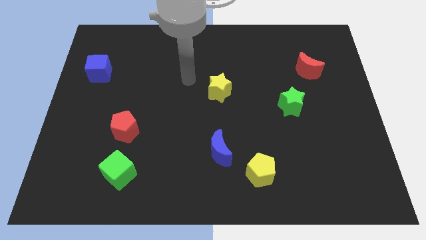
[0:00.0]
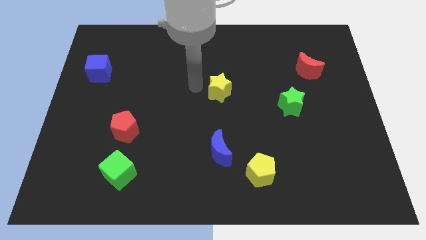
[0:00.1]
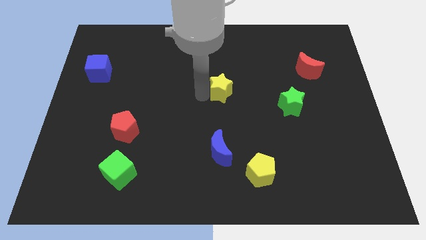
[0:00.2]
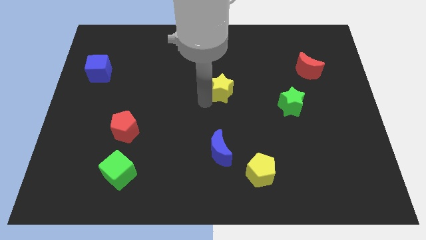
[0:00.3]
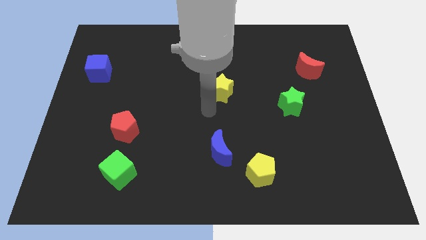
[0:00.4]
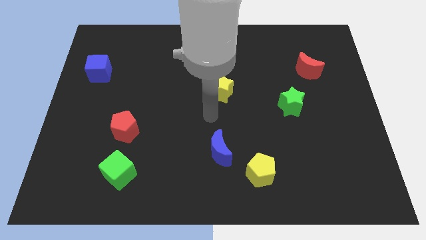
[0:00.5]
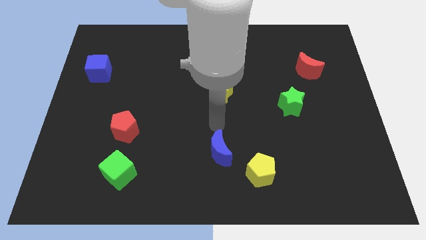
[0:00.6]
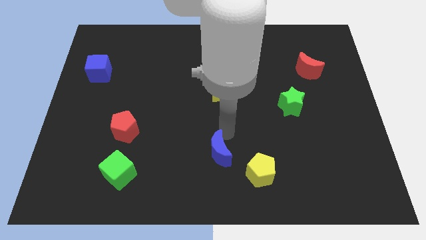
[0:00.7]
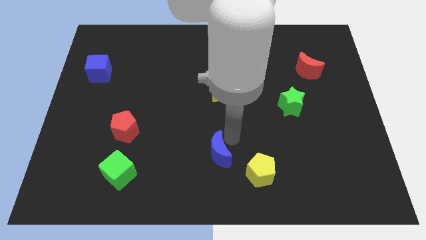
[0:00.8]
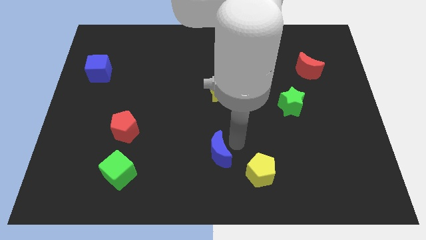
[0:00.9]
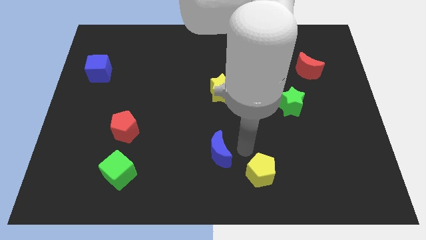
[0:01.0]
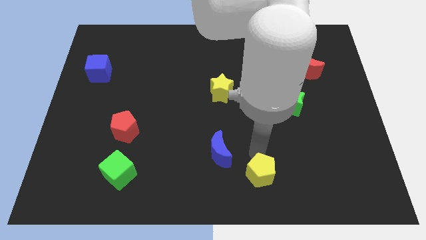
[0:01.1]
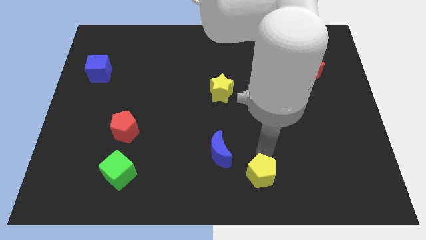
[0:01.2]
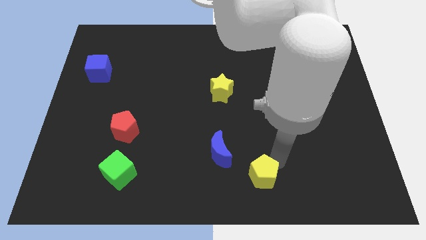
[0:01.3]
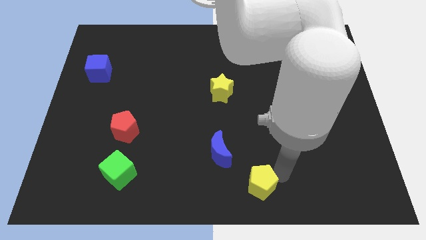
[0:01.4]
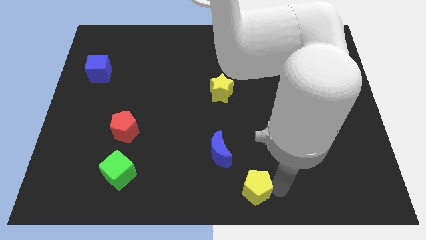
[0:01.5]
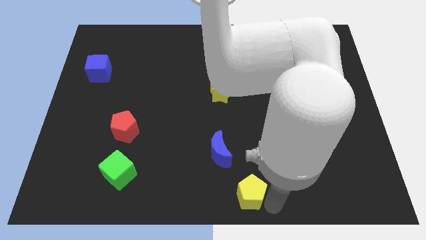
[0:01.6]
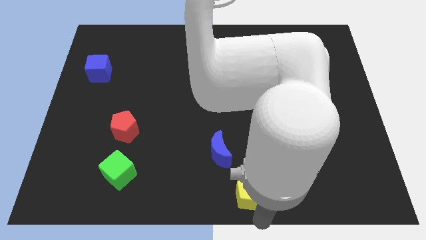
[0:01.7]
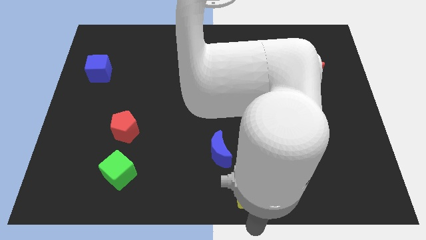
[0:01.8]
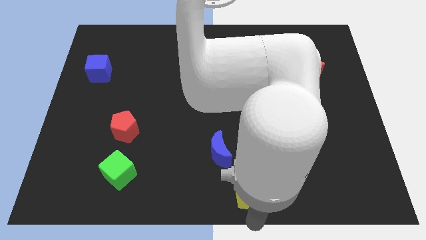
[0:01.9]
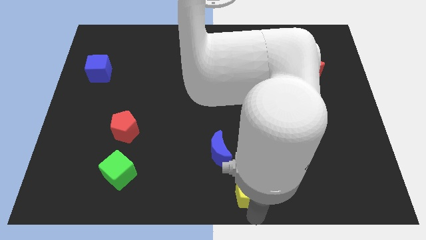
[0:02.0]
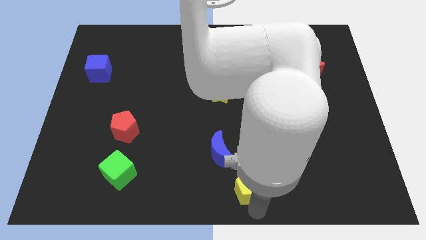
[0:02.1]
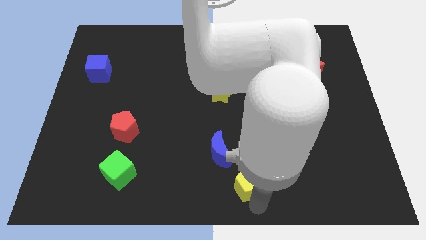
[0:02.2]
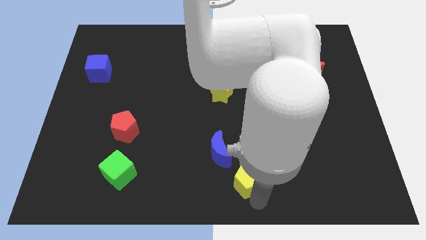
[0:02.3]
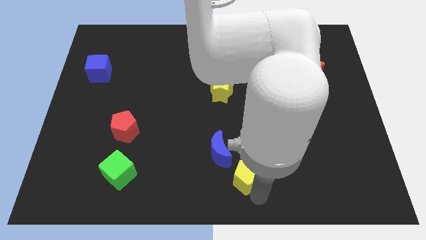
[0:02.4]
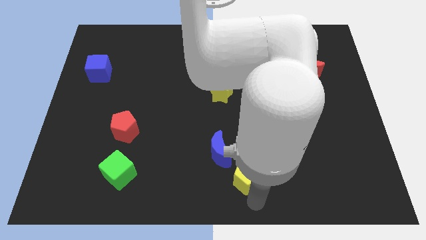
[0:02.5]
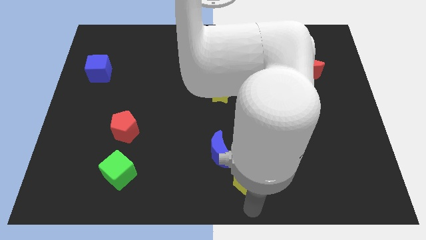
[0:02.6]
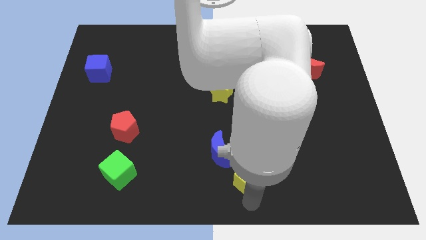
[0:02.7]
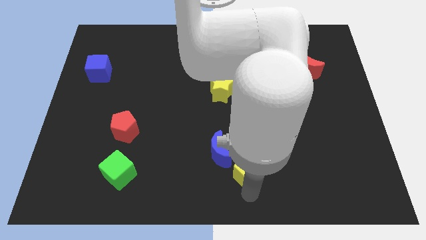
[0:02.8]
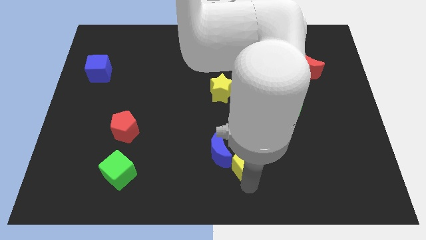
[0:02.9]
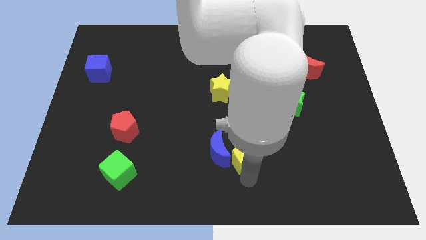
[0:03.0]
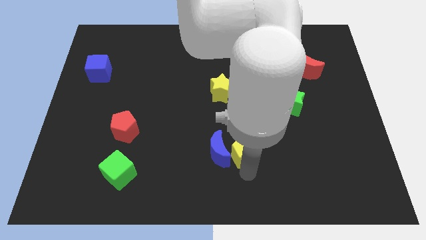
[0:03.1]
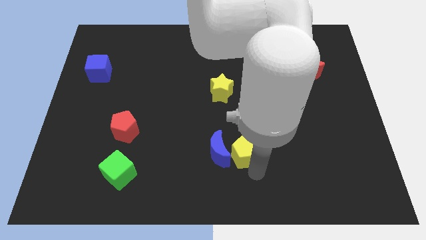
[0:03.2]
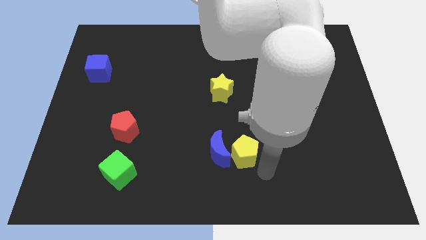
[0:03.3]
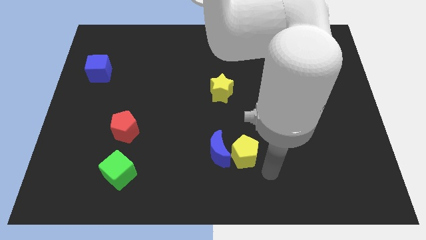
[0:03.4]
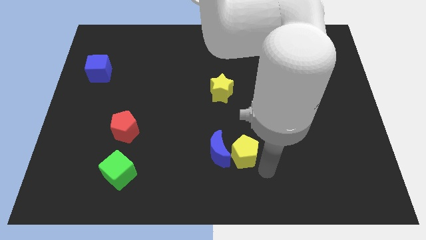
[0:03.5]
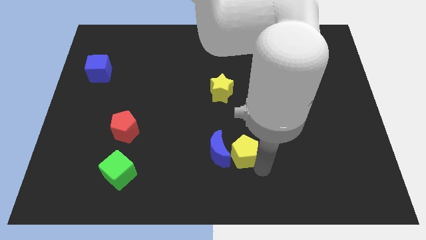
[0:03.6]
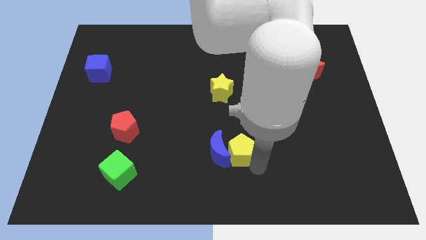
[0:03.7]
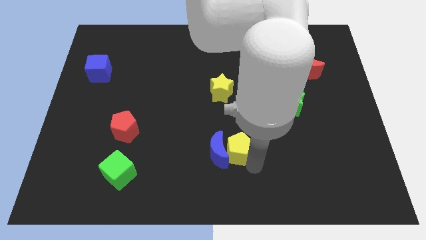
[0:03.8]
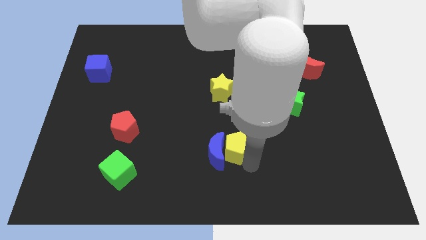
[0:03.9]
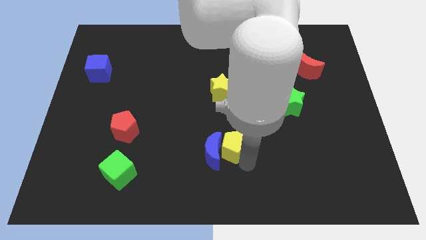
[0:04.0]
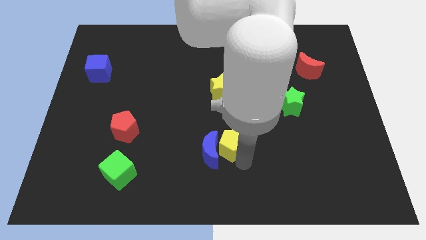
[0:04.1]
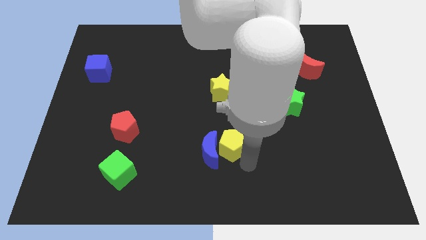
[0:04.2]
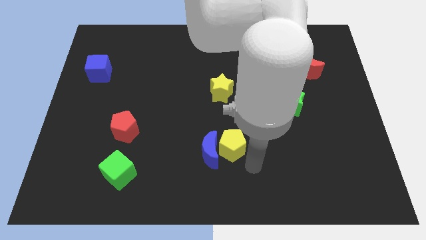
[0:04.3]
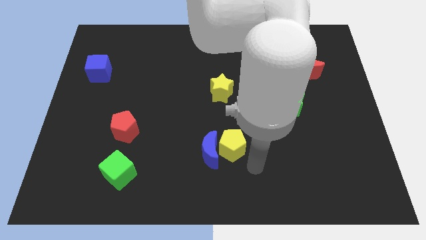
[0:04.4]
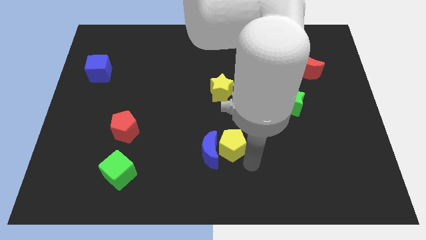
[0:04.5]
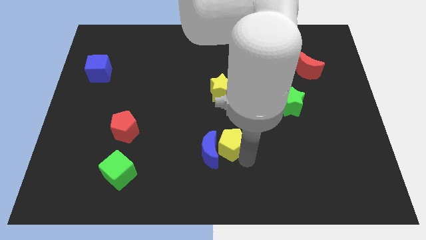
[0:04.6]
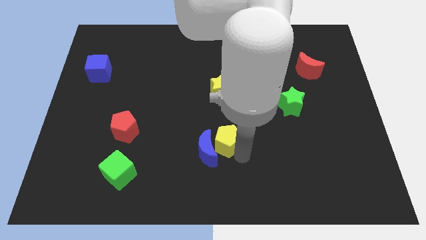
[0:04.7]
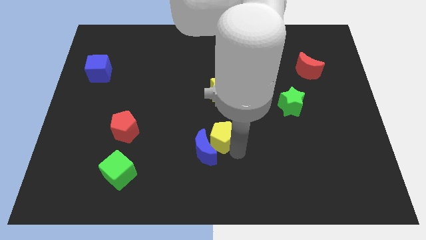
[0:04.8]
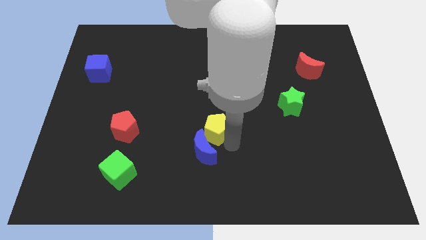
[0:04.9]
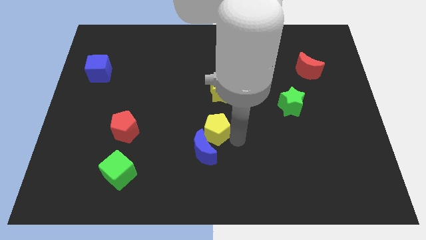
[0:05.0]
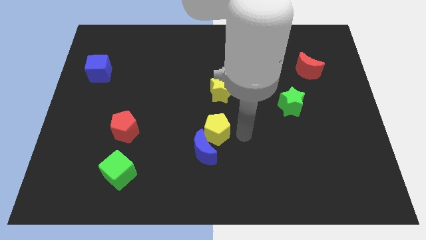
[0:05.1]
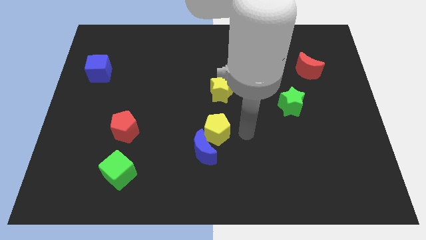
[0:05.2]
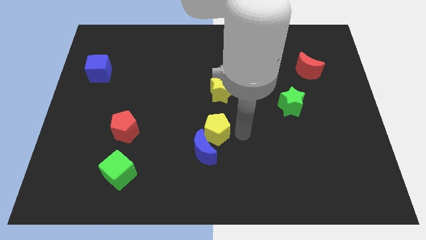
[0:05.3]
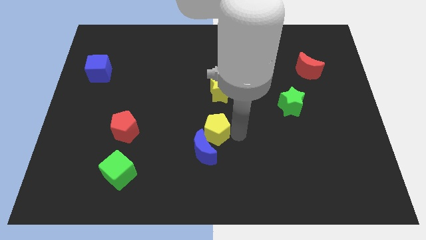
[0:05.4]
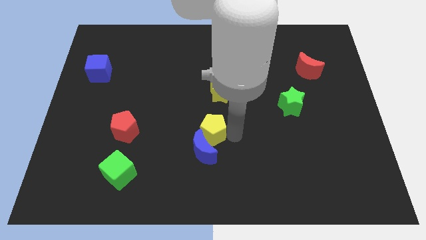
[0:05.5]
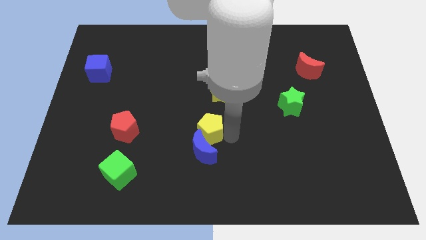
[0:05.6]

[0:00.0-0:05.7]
move the yellow pentagon diagonally up and to the left of the blue moon

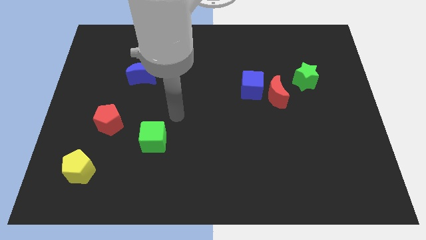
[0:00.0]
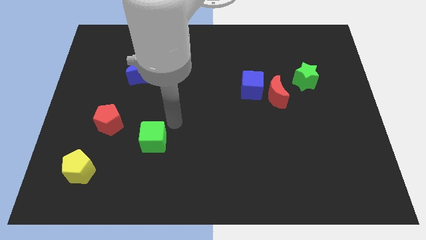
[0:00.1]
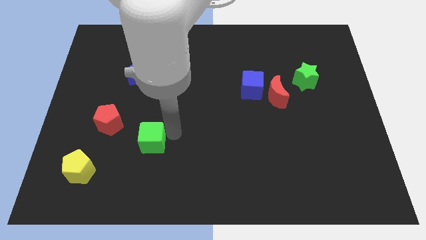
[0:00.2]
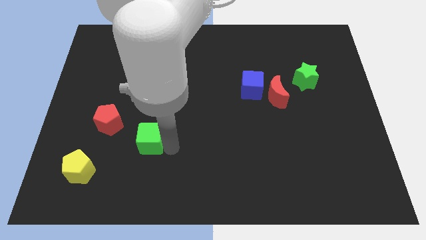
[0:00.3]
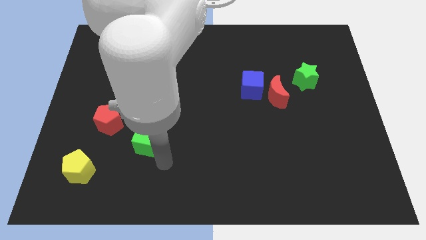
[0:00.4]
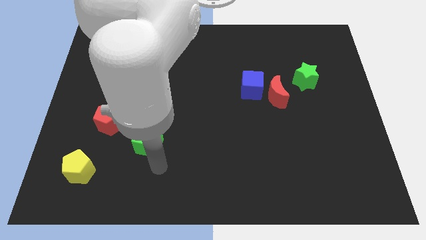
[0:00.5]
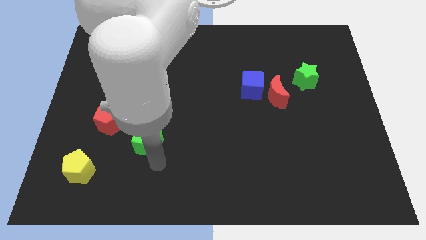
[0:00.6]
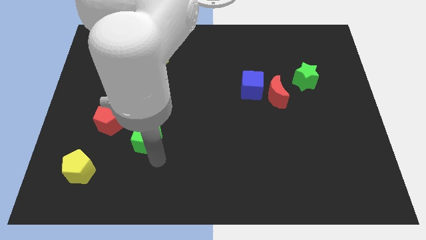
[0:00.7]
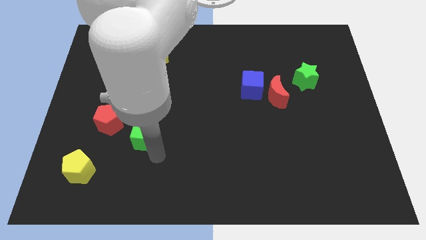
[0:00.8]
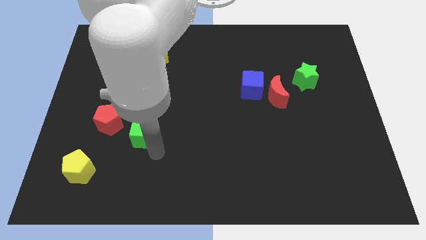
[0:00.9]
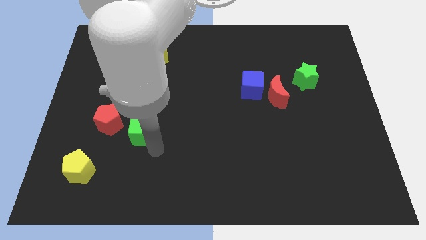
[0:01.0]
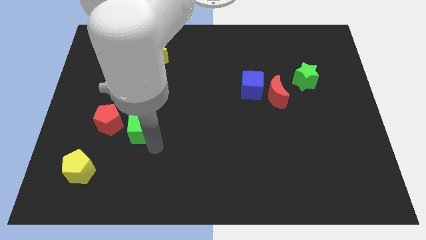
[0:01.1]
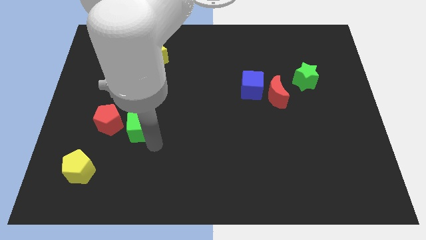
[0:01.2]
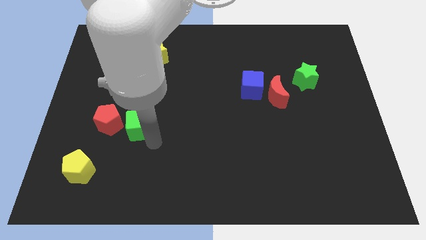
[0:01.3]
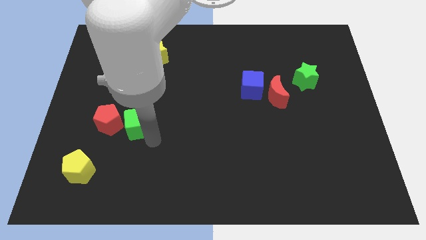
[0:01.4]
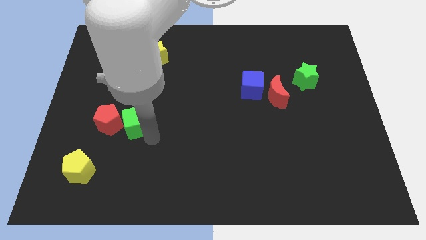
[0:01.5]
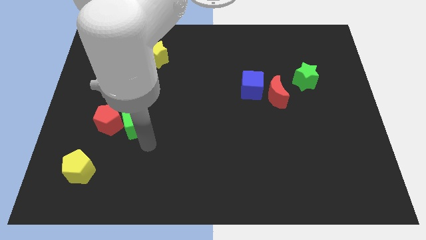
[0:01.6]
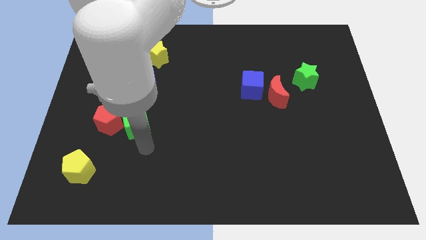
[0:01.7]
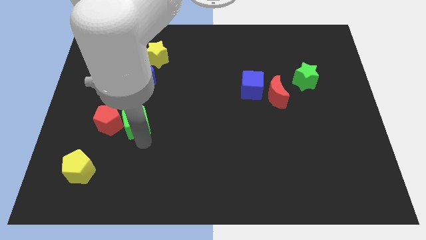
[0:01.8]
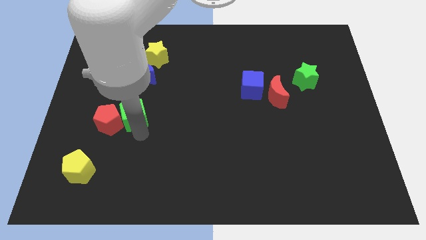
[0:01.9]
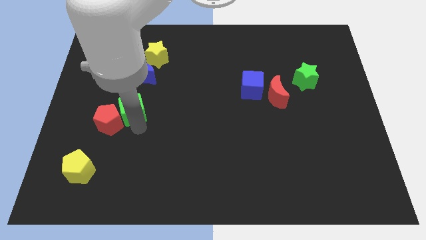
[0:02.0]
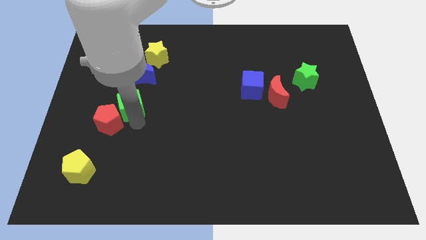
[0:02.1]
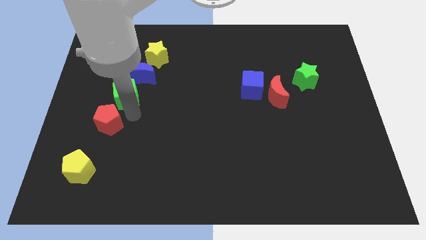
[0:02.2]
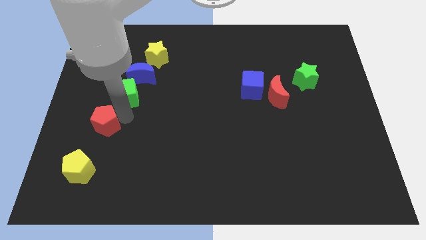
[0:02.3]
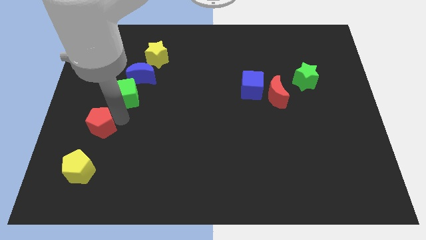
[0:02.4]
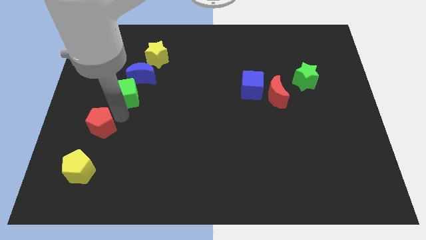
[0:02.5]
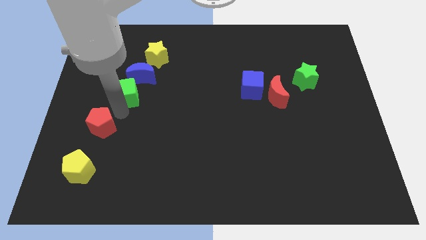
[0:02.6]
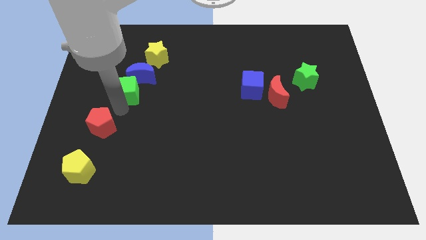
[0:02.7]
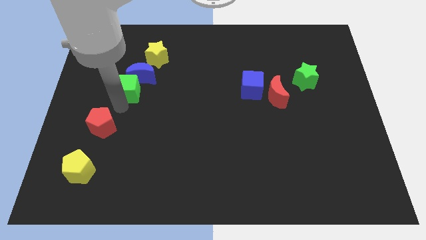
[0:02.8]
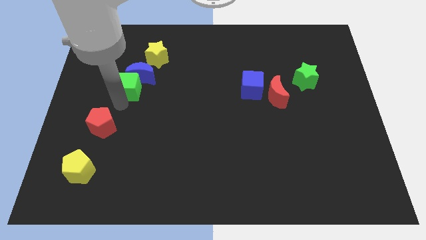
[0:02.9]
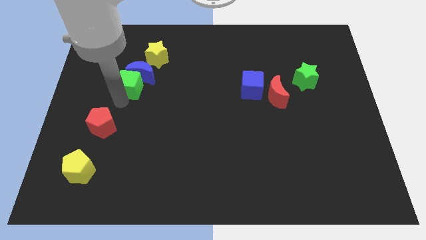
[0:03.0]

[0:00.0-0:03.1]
slide the green cube to the bottom left of the yellow star
